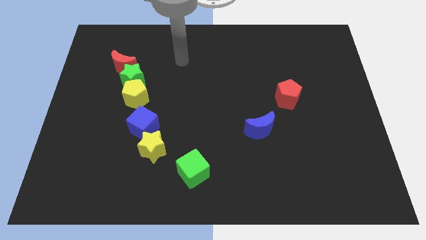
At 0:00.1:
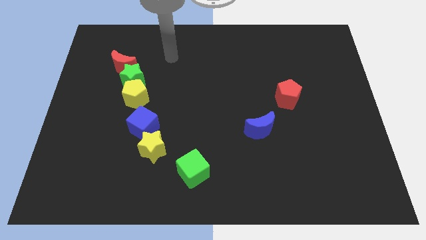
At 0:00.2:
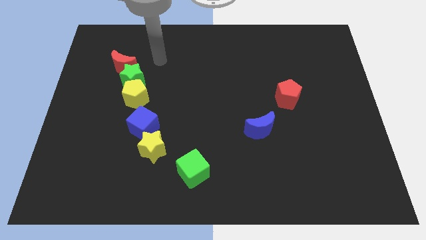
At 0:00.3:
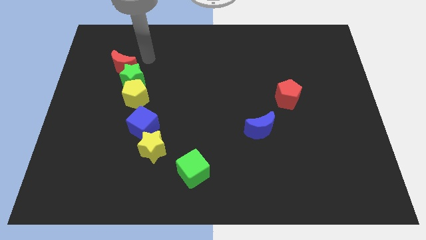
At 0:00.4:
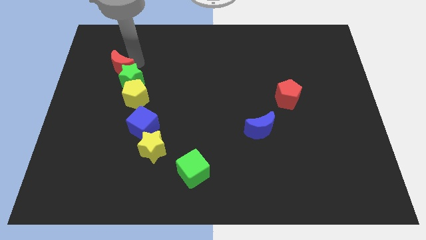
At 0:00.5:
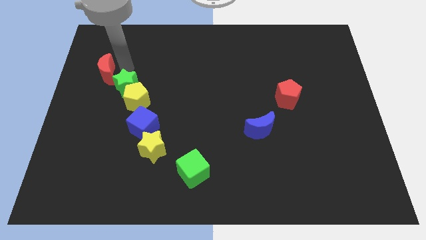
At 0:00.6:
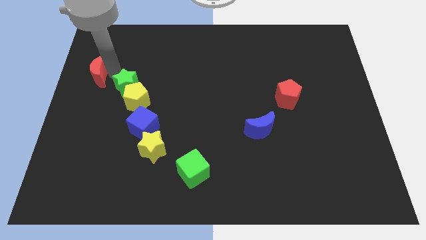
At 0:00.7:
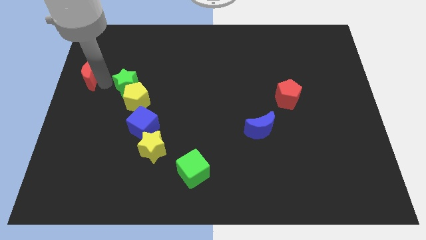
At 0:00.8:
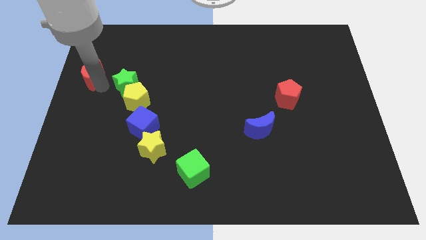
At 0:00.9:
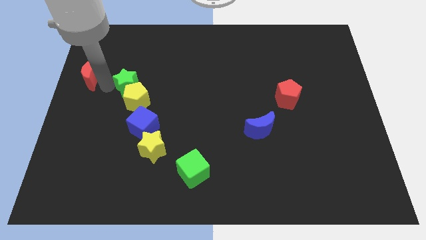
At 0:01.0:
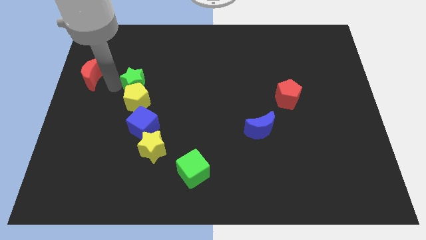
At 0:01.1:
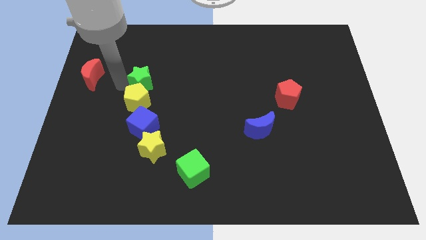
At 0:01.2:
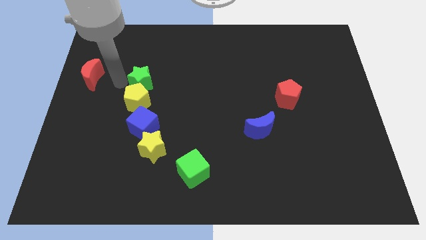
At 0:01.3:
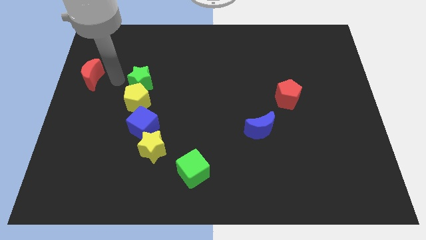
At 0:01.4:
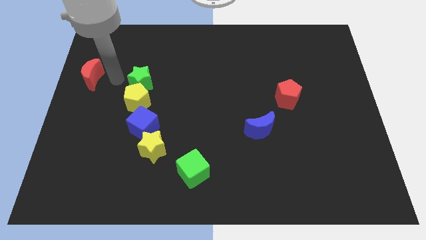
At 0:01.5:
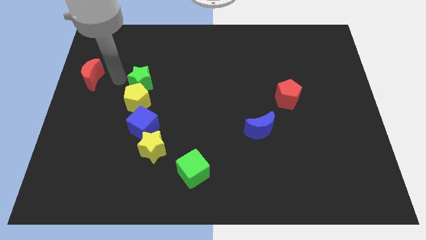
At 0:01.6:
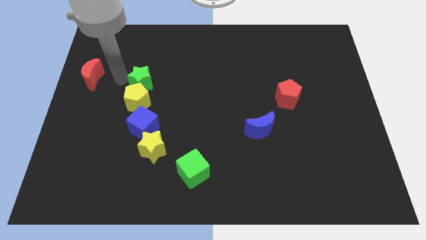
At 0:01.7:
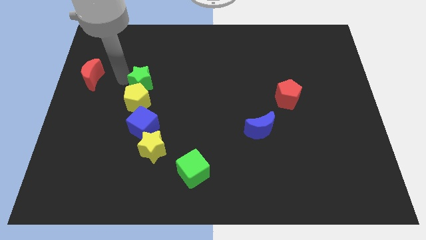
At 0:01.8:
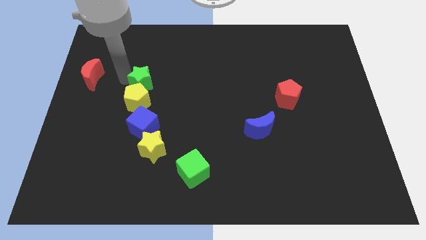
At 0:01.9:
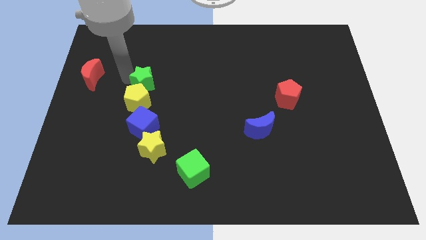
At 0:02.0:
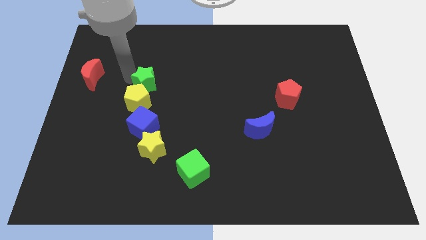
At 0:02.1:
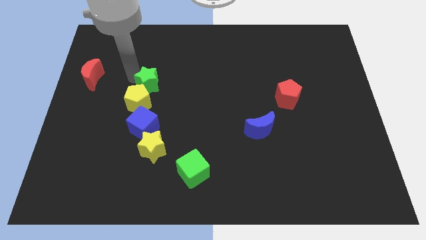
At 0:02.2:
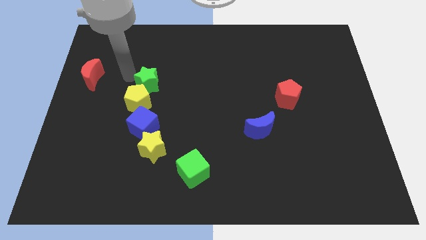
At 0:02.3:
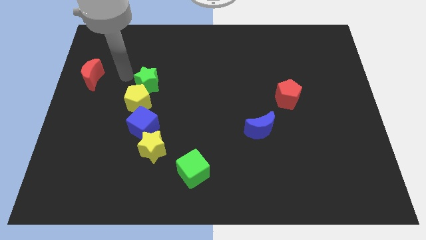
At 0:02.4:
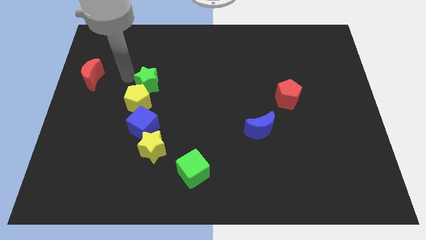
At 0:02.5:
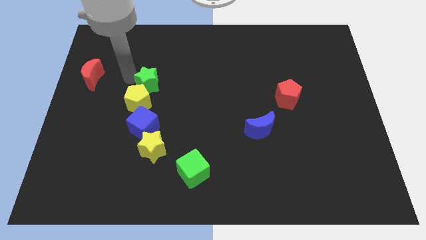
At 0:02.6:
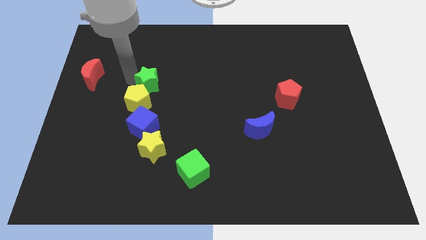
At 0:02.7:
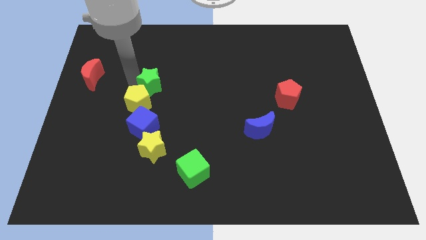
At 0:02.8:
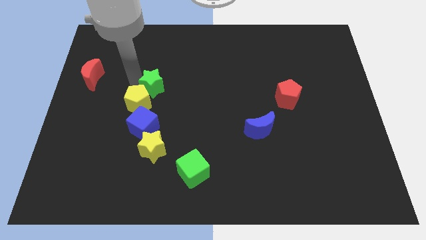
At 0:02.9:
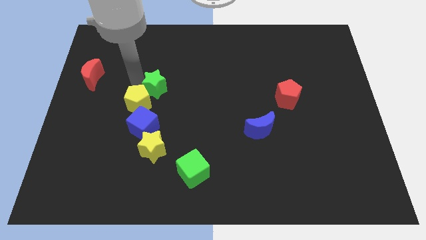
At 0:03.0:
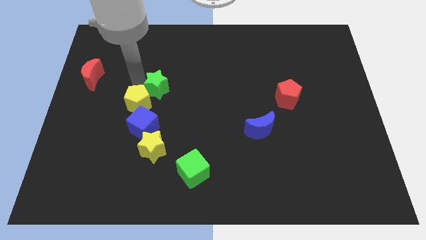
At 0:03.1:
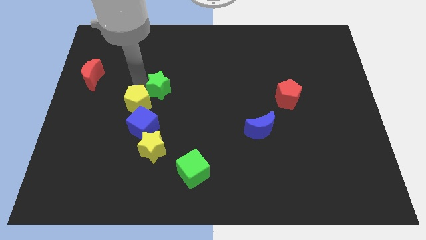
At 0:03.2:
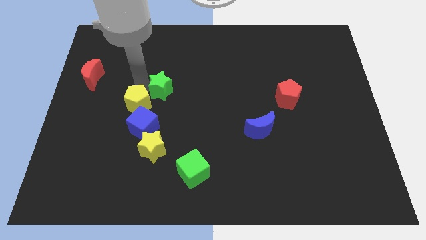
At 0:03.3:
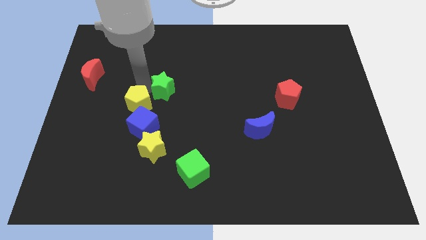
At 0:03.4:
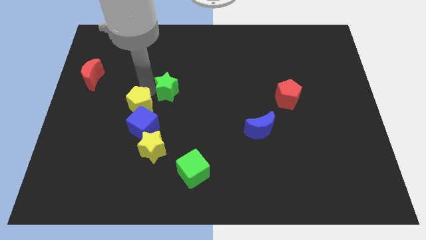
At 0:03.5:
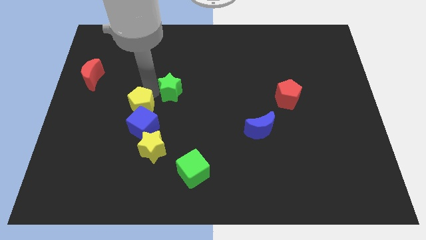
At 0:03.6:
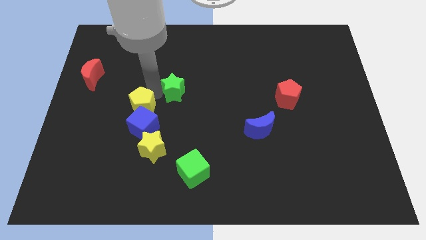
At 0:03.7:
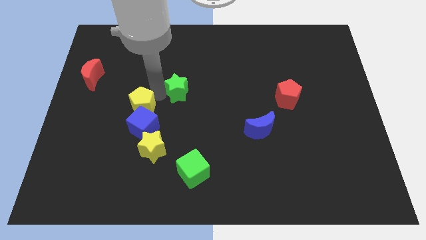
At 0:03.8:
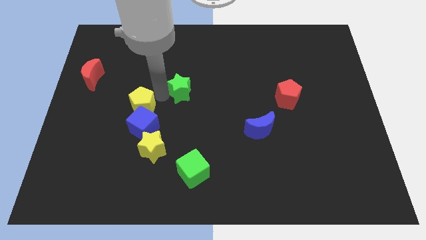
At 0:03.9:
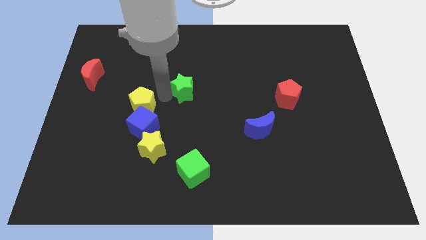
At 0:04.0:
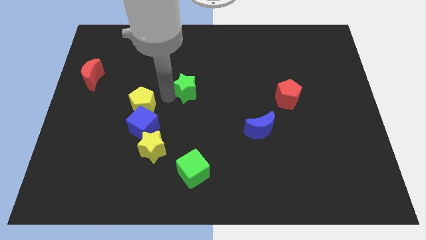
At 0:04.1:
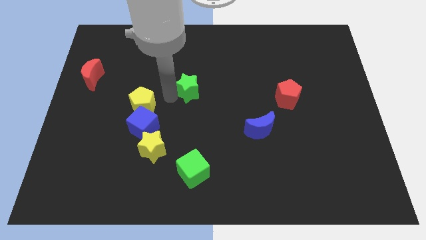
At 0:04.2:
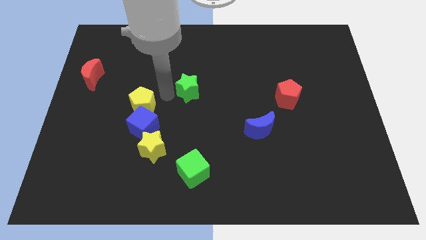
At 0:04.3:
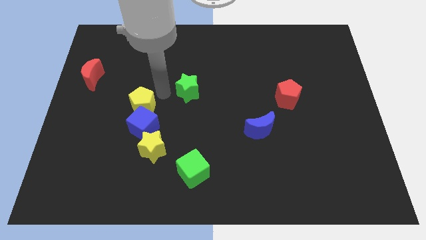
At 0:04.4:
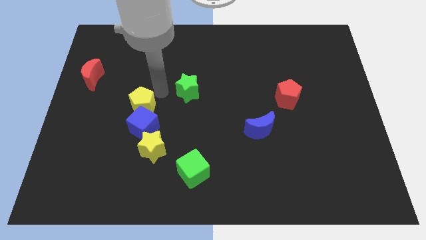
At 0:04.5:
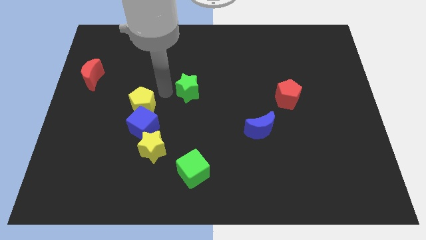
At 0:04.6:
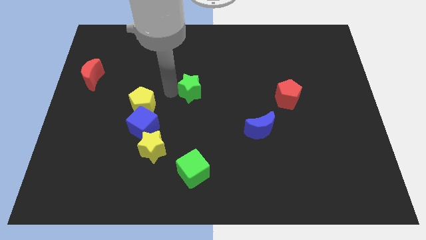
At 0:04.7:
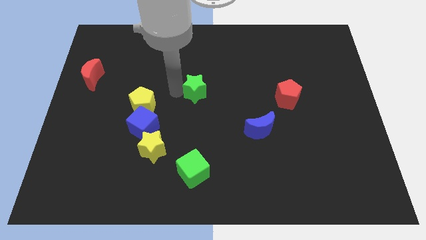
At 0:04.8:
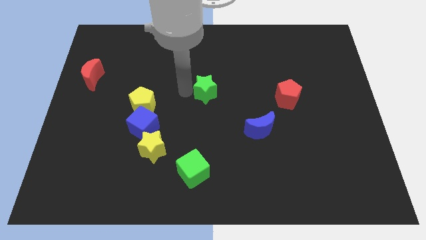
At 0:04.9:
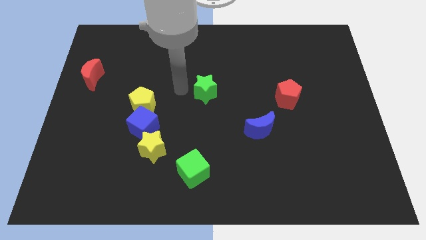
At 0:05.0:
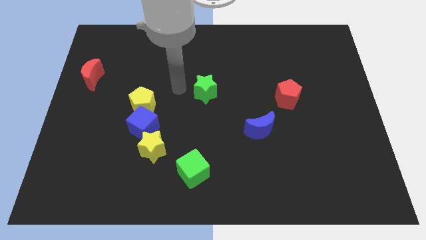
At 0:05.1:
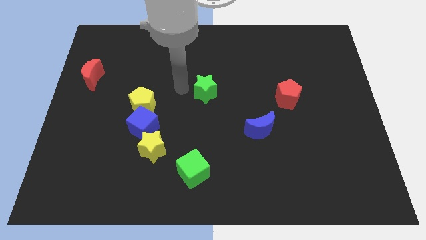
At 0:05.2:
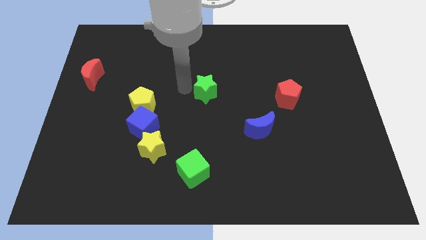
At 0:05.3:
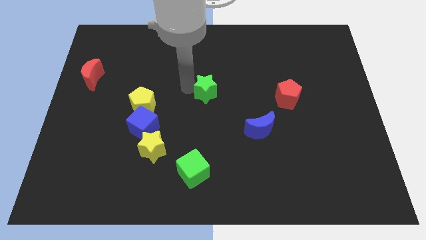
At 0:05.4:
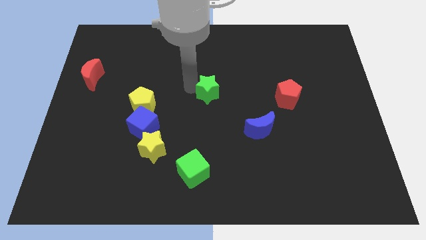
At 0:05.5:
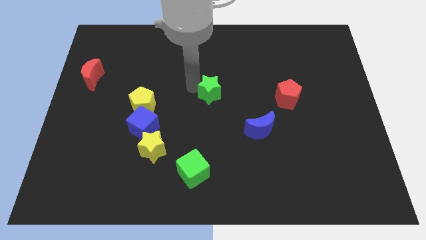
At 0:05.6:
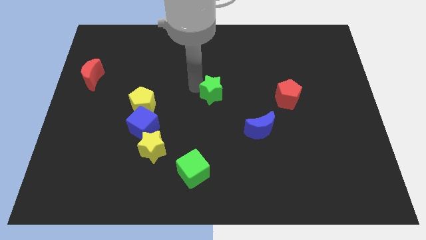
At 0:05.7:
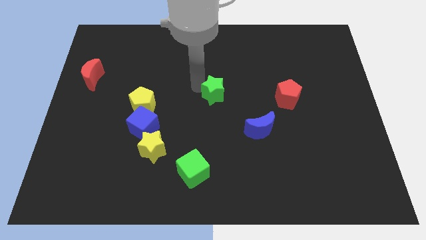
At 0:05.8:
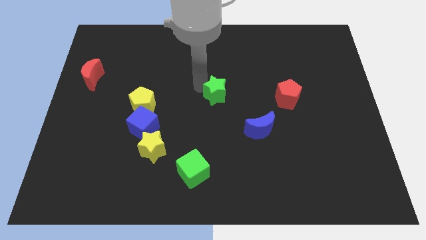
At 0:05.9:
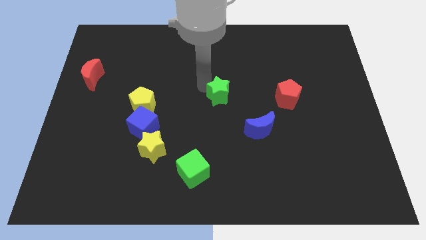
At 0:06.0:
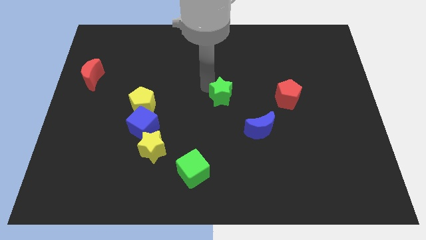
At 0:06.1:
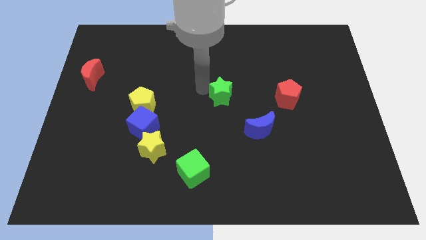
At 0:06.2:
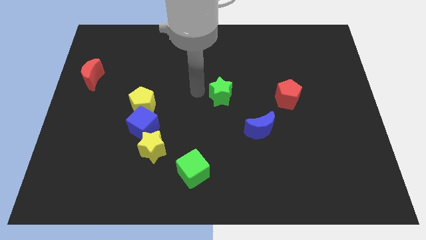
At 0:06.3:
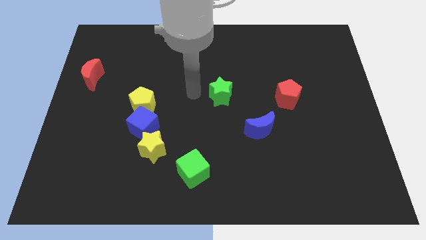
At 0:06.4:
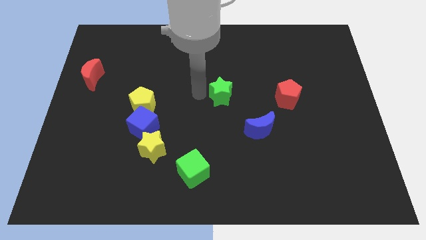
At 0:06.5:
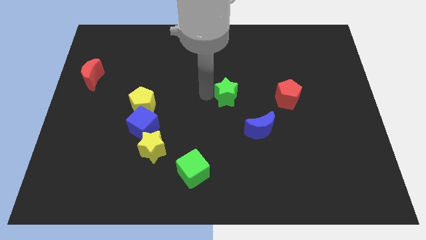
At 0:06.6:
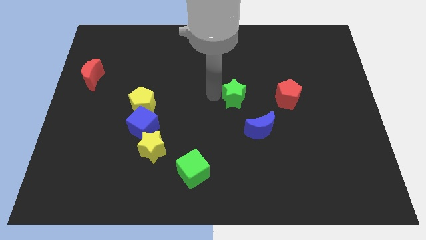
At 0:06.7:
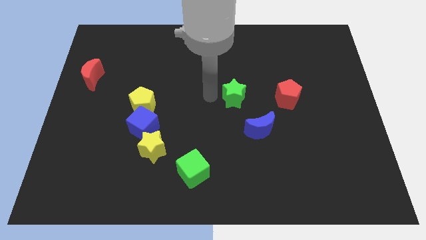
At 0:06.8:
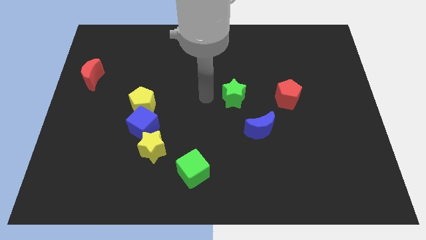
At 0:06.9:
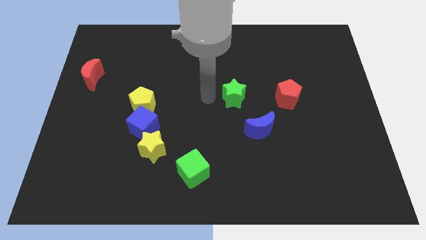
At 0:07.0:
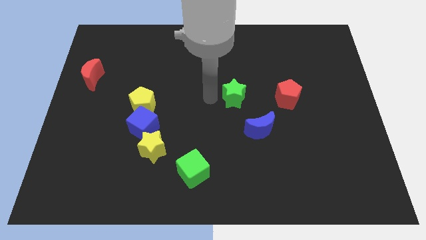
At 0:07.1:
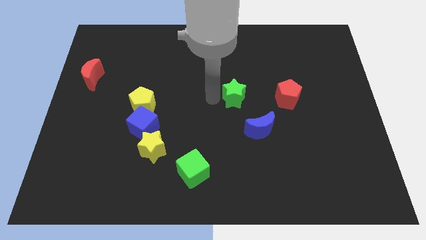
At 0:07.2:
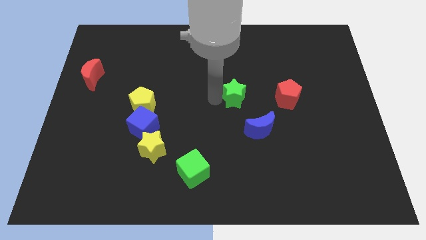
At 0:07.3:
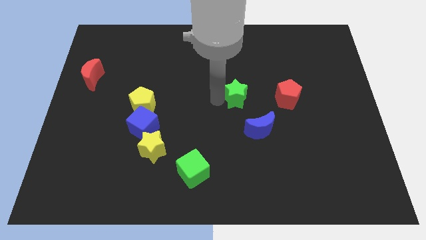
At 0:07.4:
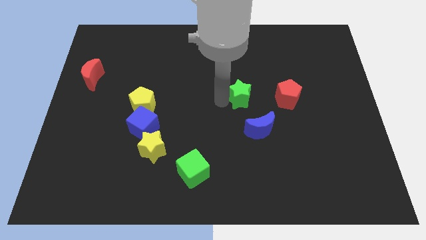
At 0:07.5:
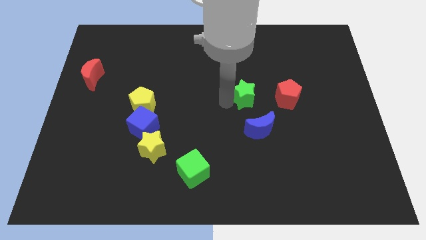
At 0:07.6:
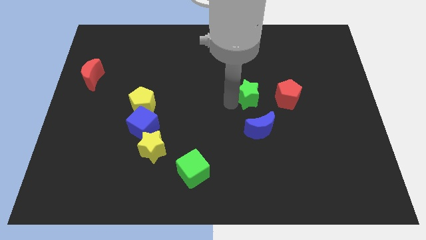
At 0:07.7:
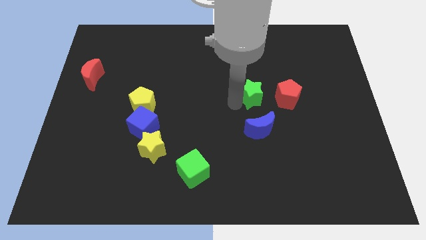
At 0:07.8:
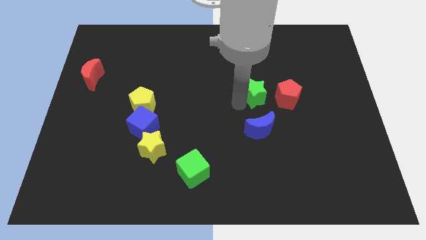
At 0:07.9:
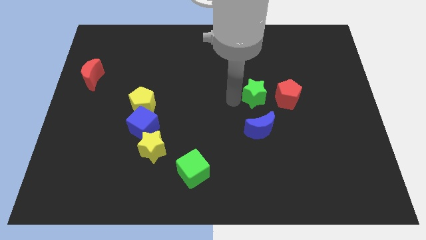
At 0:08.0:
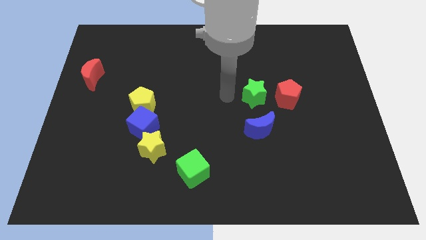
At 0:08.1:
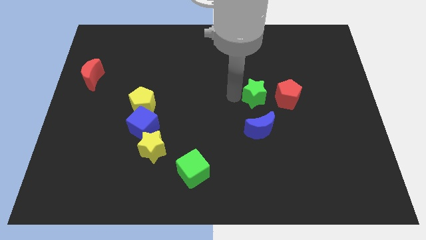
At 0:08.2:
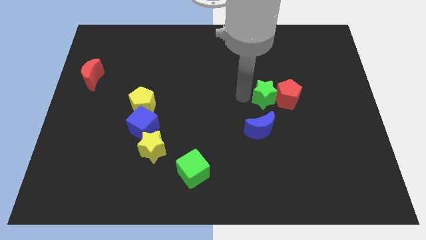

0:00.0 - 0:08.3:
slide the green star next to the red pentagon
